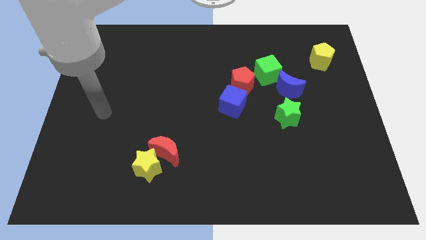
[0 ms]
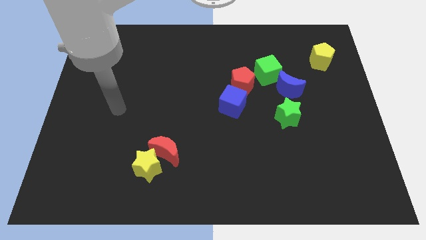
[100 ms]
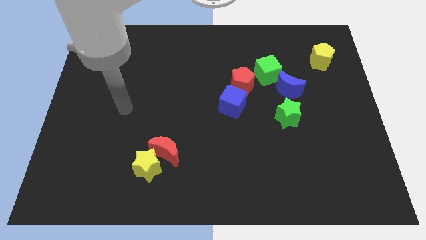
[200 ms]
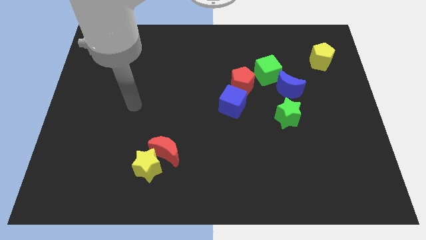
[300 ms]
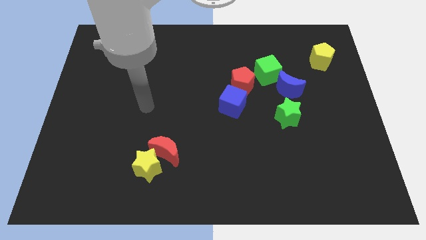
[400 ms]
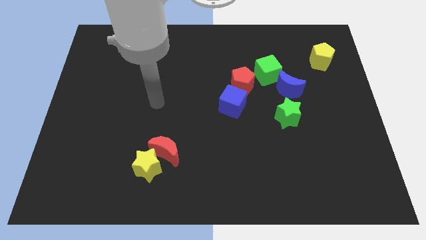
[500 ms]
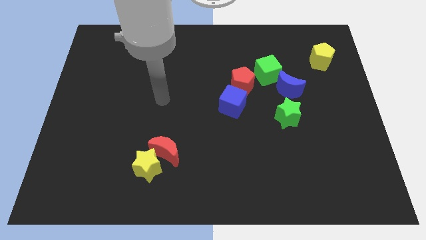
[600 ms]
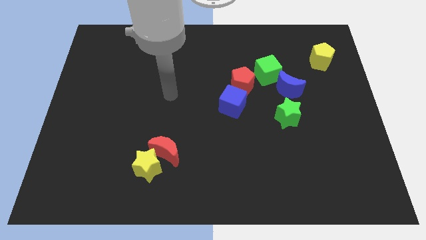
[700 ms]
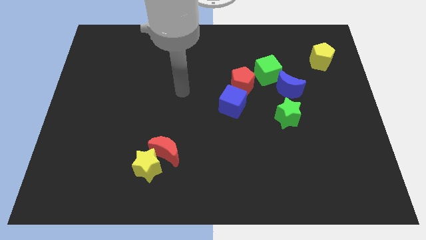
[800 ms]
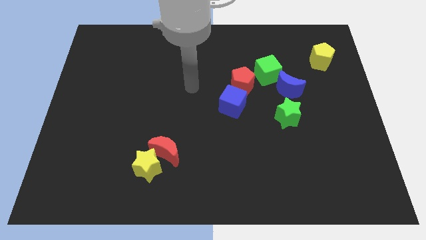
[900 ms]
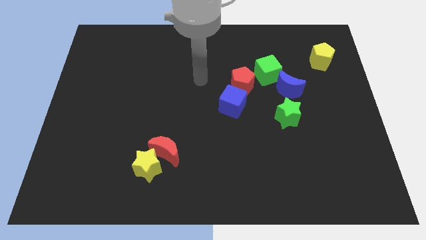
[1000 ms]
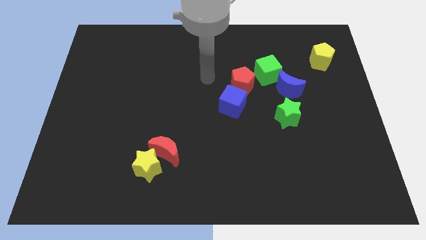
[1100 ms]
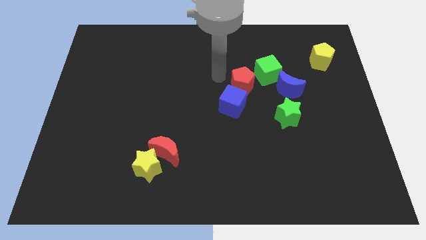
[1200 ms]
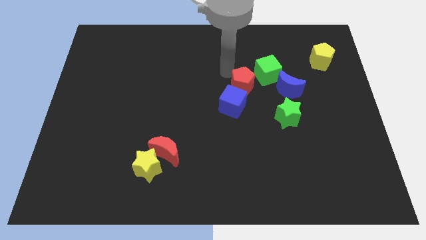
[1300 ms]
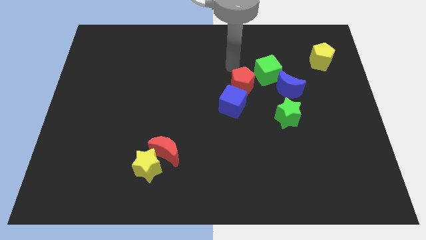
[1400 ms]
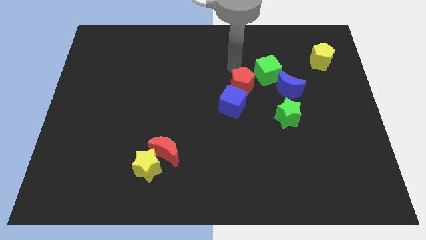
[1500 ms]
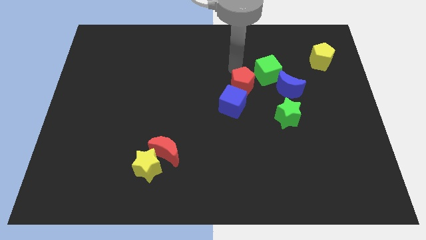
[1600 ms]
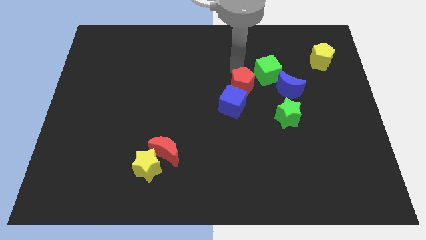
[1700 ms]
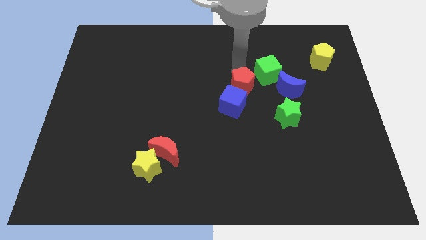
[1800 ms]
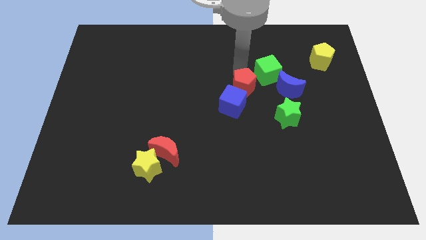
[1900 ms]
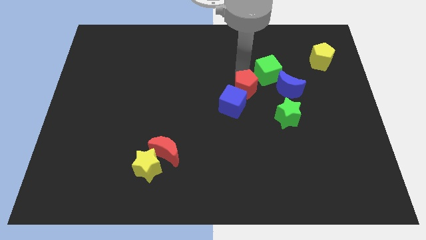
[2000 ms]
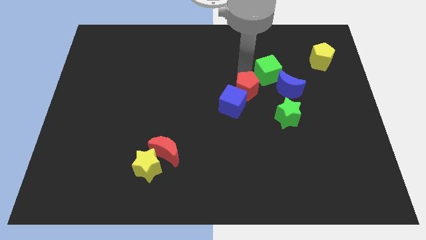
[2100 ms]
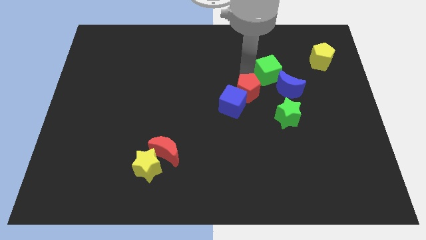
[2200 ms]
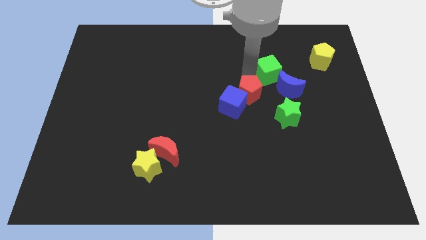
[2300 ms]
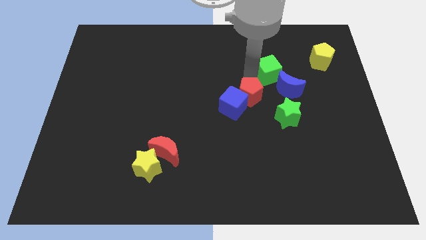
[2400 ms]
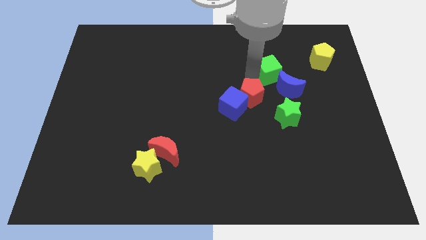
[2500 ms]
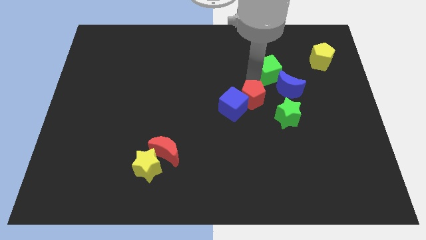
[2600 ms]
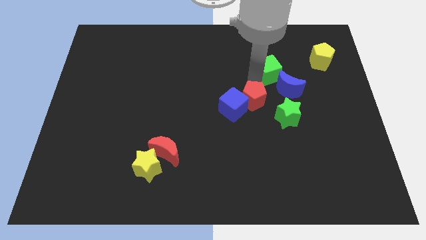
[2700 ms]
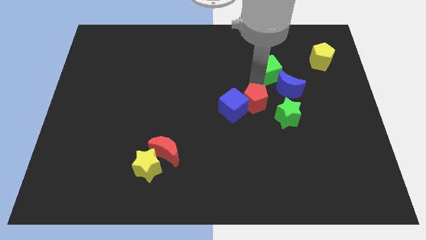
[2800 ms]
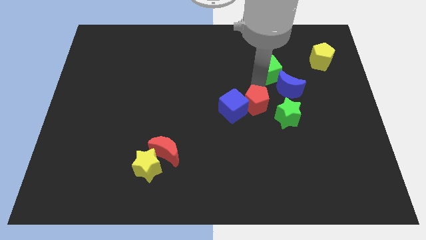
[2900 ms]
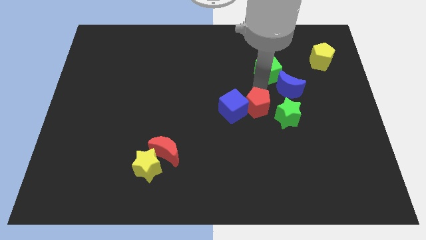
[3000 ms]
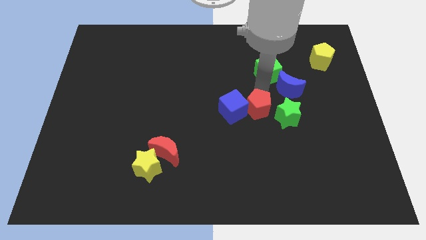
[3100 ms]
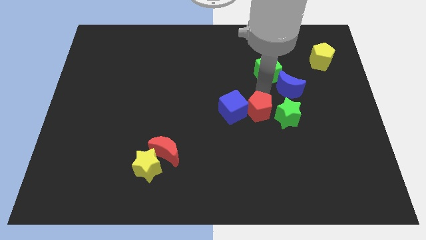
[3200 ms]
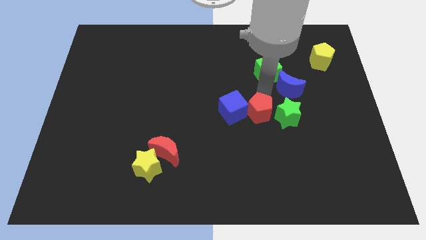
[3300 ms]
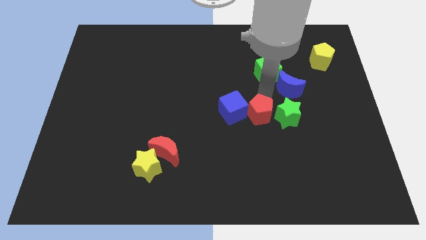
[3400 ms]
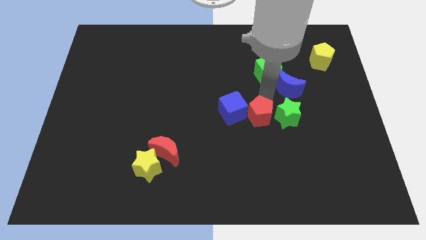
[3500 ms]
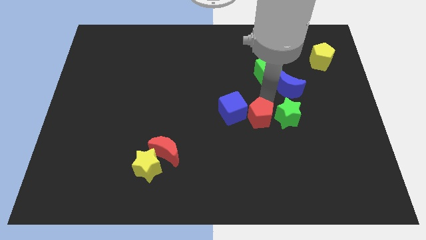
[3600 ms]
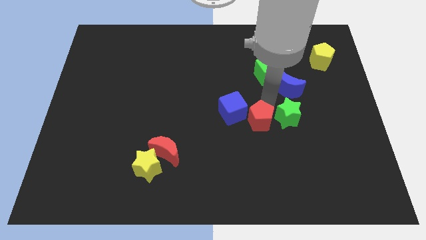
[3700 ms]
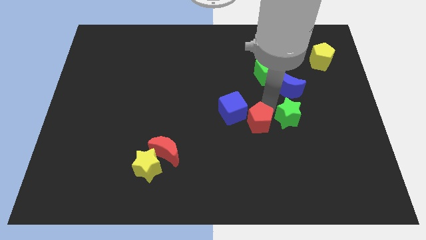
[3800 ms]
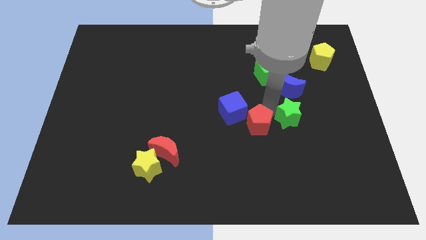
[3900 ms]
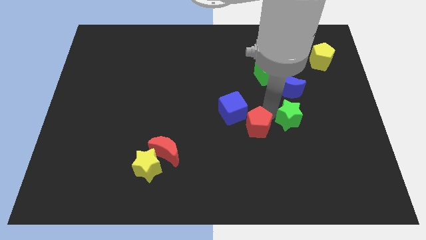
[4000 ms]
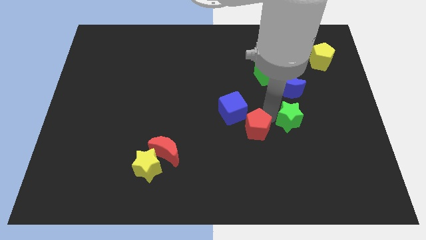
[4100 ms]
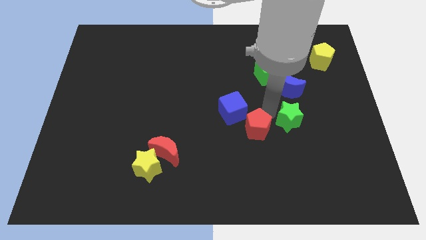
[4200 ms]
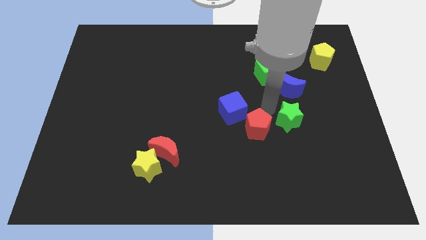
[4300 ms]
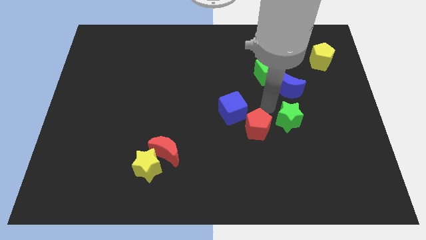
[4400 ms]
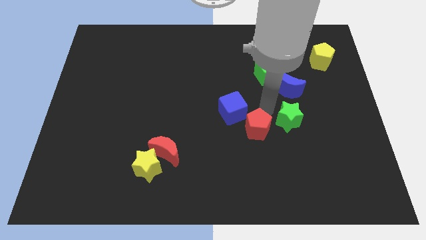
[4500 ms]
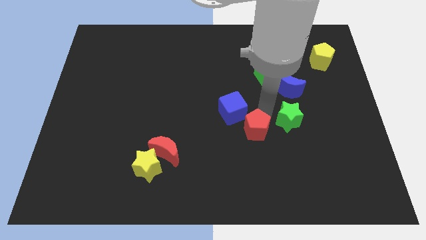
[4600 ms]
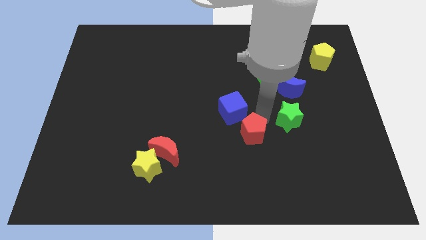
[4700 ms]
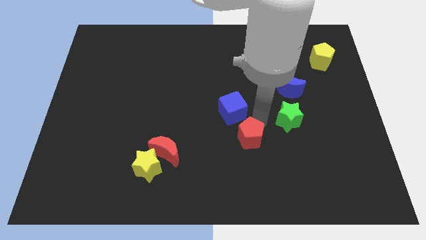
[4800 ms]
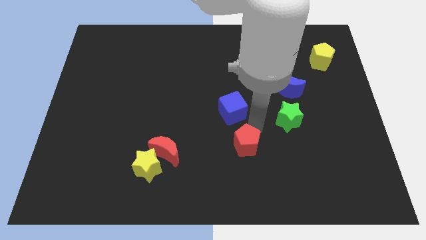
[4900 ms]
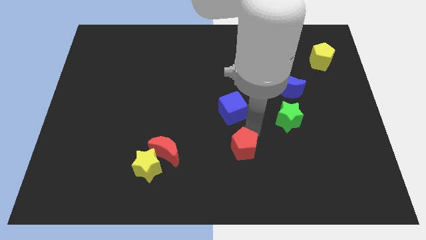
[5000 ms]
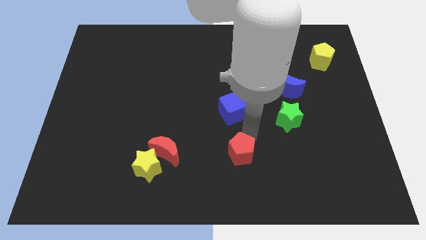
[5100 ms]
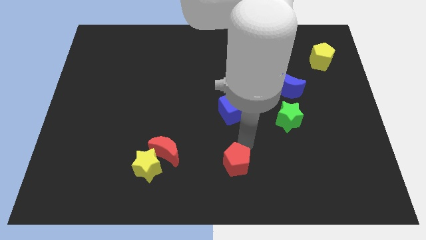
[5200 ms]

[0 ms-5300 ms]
put the red pentagon to the bottom side
